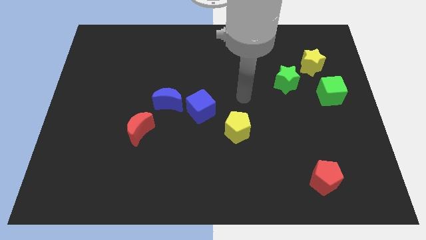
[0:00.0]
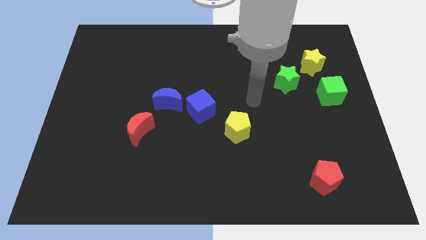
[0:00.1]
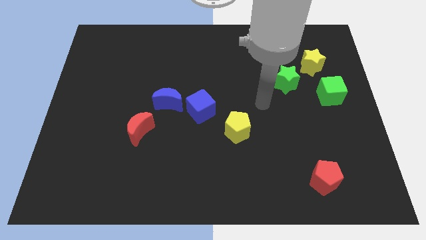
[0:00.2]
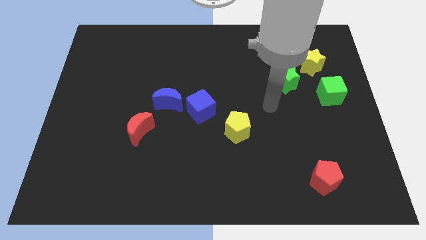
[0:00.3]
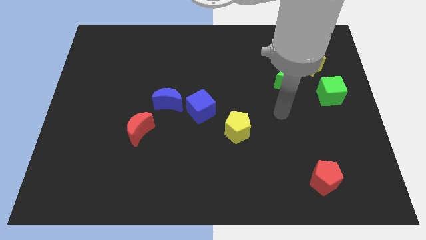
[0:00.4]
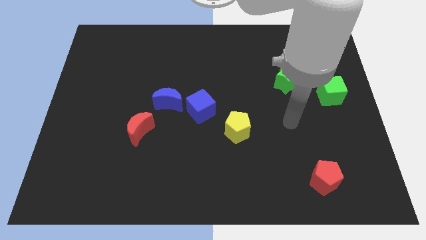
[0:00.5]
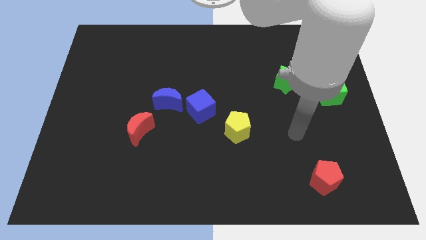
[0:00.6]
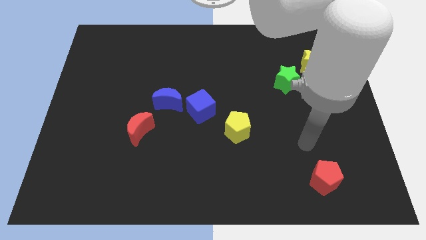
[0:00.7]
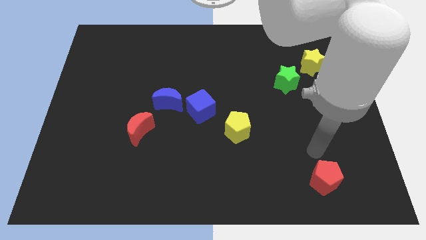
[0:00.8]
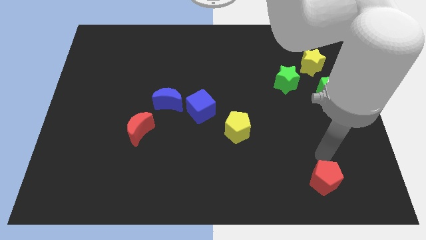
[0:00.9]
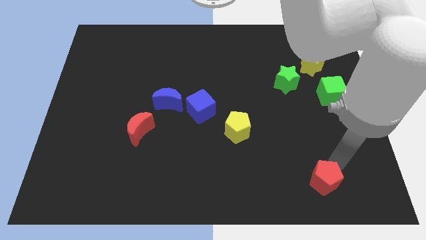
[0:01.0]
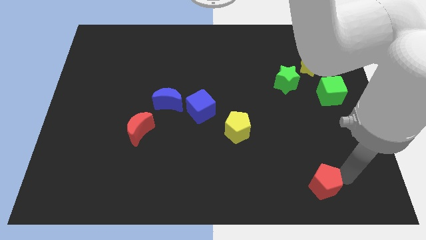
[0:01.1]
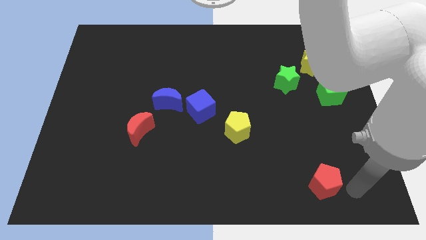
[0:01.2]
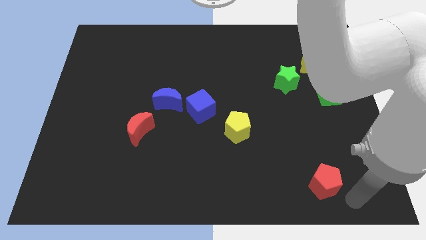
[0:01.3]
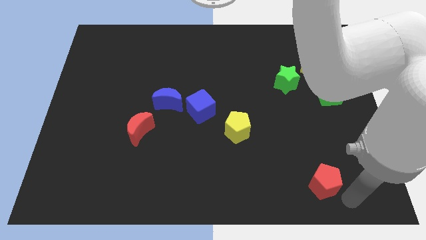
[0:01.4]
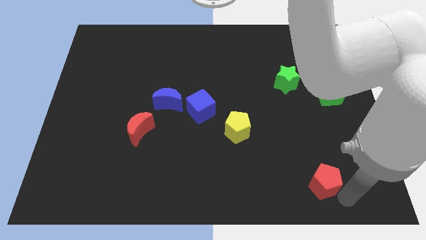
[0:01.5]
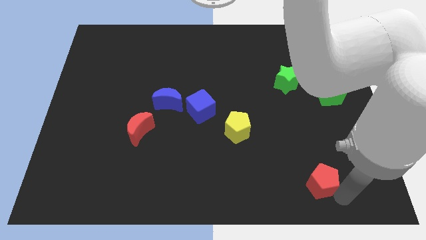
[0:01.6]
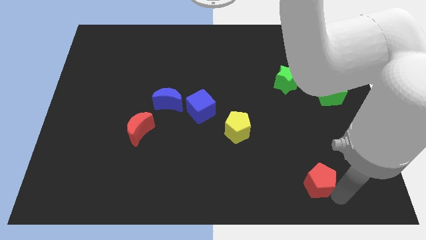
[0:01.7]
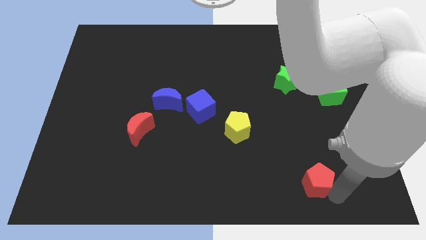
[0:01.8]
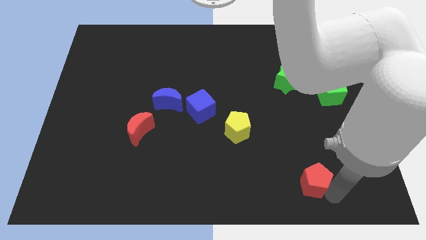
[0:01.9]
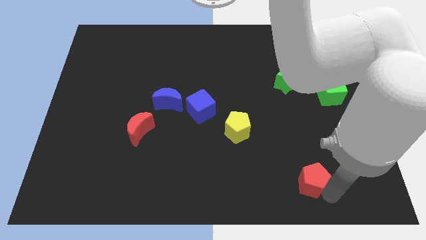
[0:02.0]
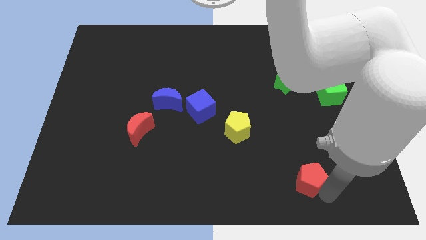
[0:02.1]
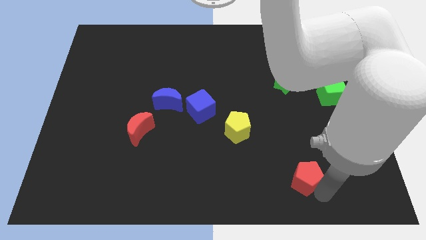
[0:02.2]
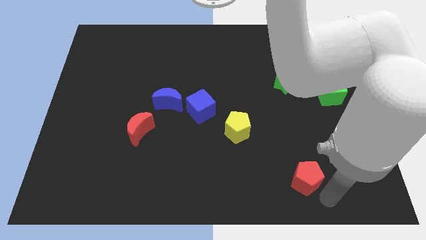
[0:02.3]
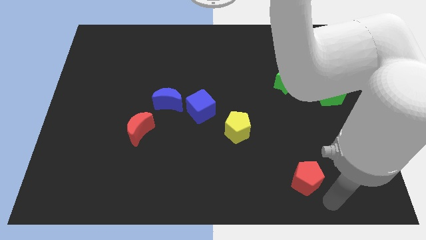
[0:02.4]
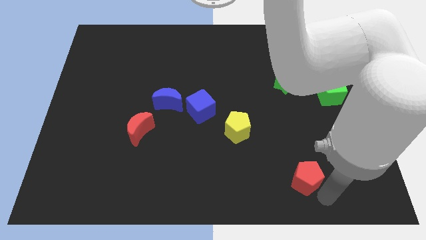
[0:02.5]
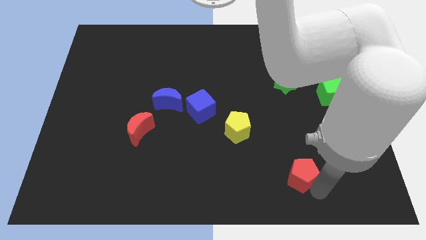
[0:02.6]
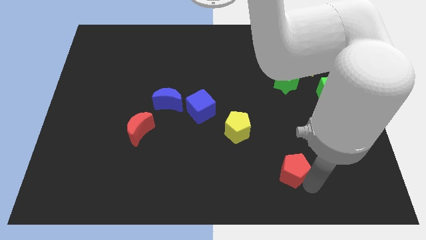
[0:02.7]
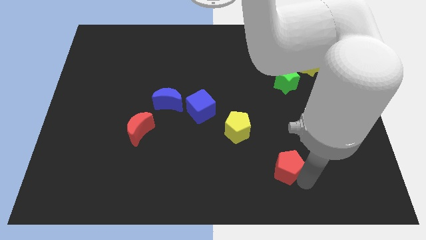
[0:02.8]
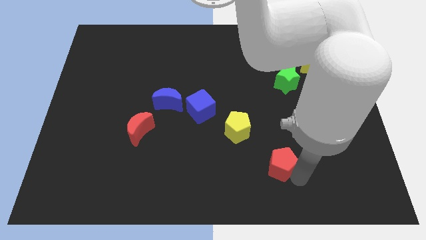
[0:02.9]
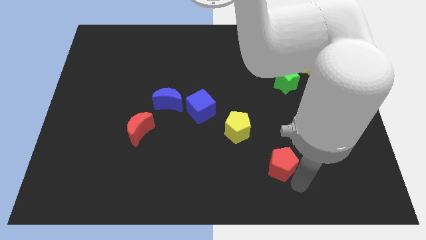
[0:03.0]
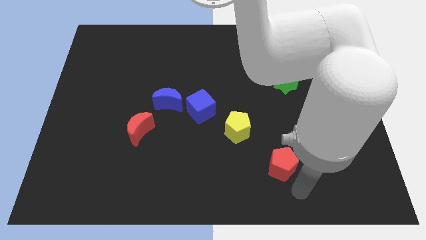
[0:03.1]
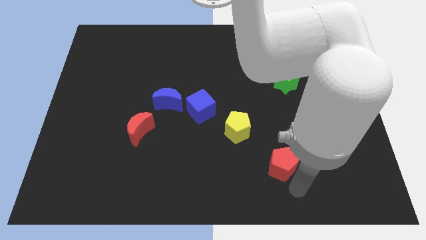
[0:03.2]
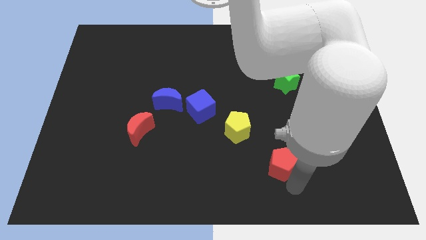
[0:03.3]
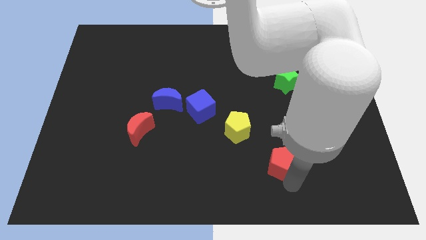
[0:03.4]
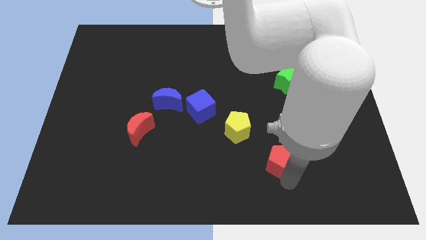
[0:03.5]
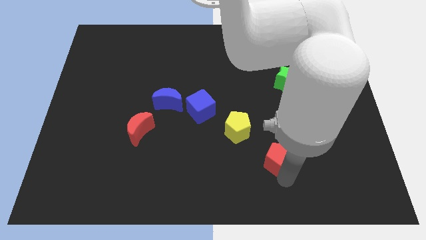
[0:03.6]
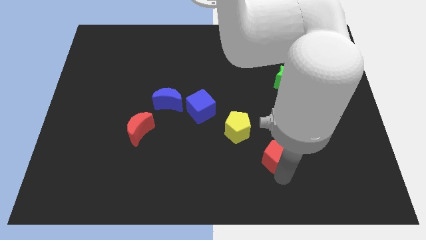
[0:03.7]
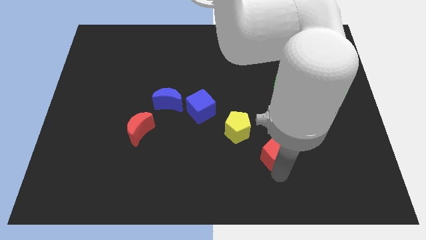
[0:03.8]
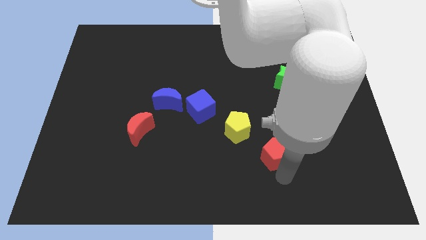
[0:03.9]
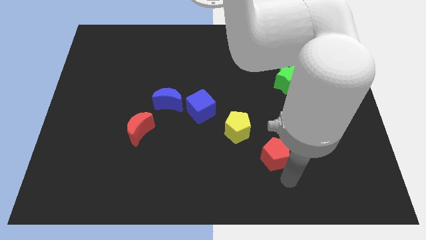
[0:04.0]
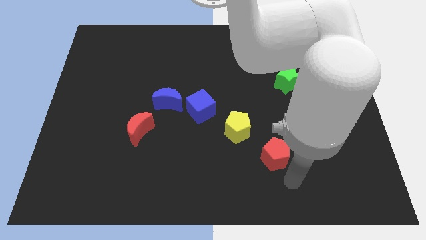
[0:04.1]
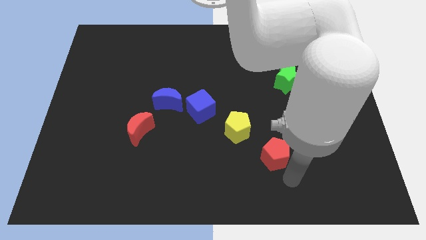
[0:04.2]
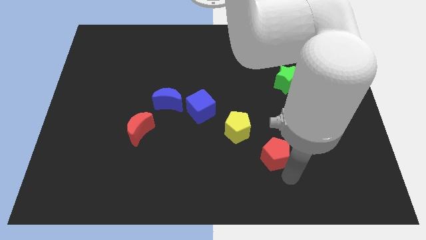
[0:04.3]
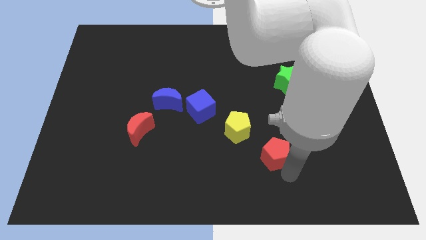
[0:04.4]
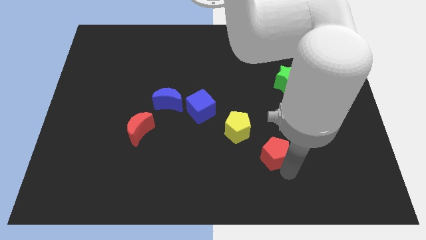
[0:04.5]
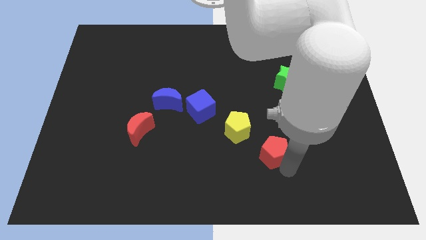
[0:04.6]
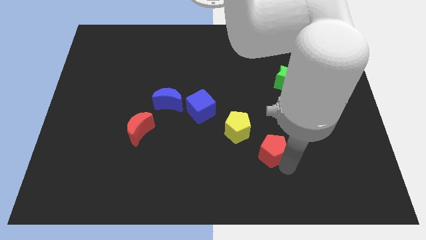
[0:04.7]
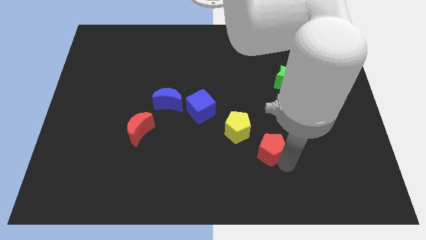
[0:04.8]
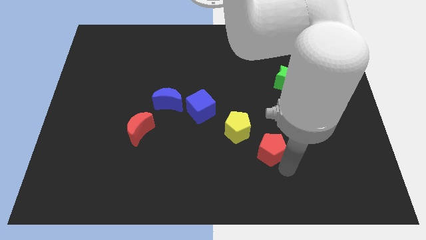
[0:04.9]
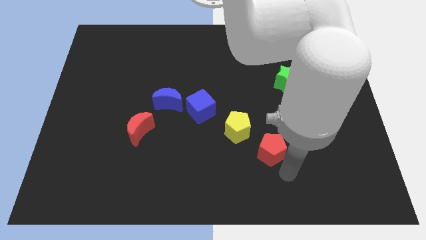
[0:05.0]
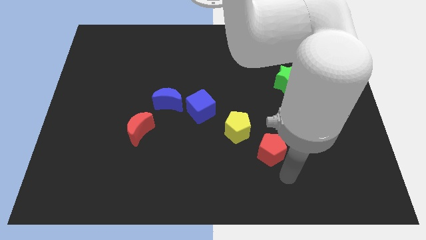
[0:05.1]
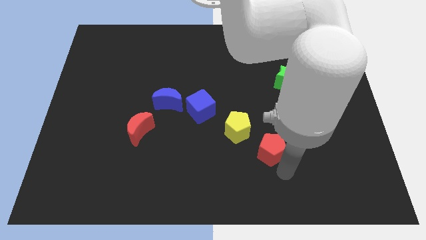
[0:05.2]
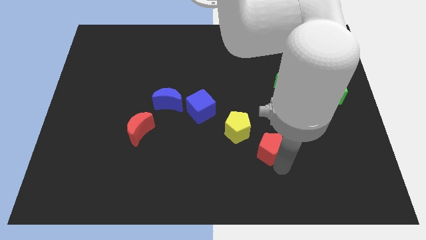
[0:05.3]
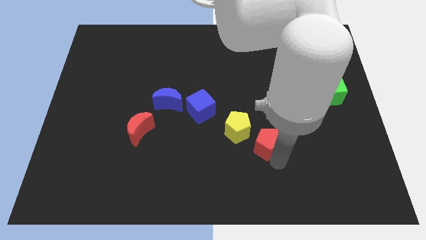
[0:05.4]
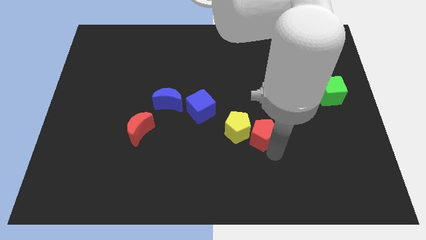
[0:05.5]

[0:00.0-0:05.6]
push the red pentagon close to the yellow pentagon
